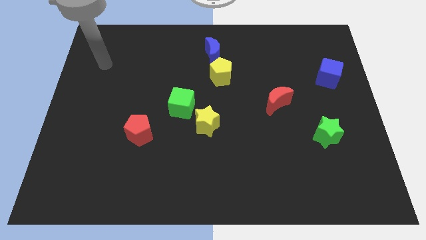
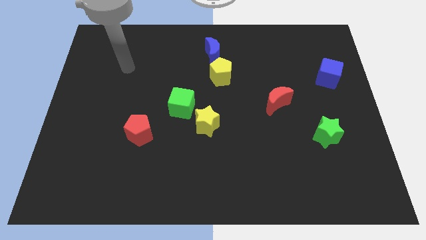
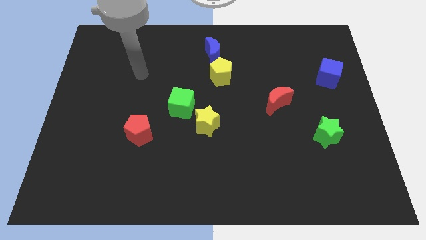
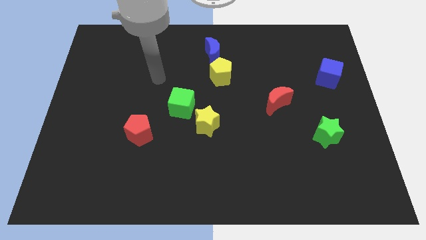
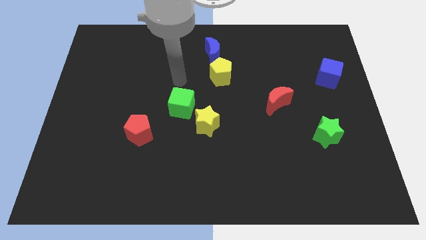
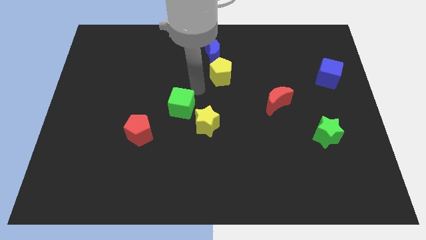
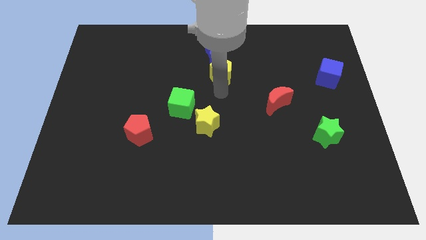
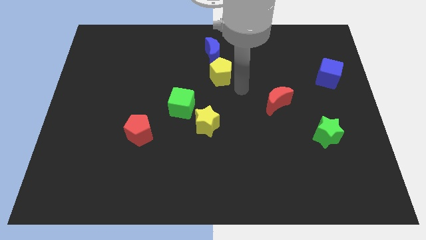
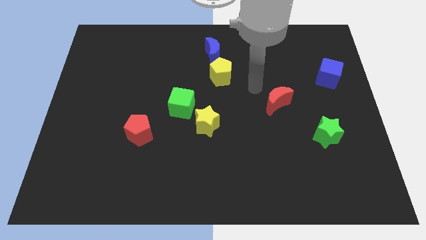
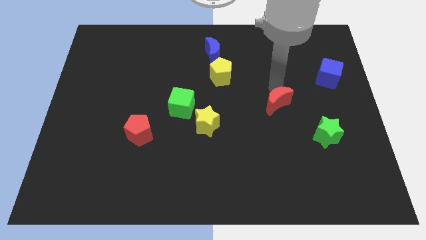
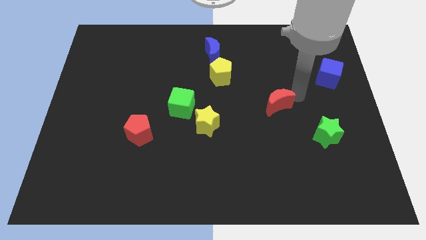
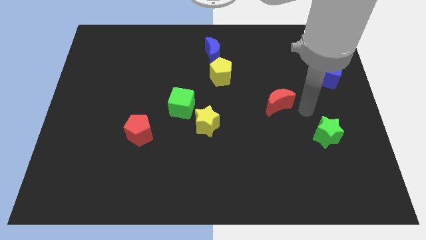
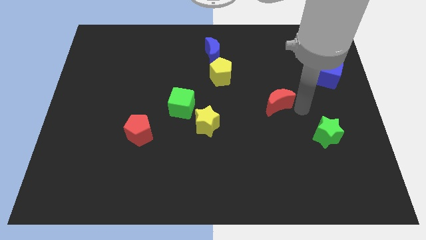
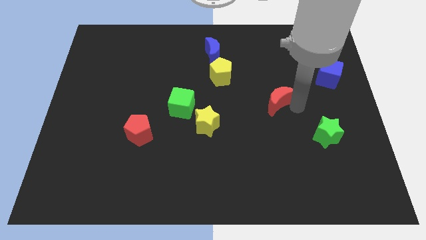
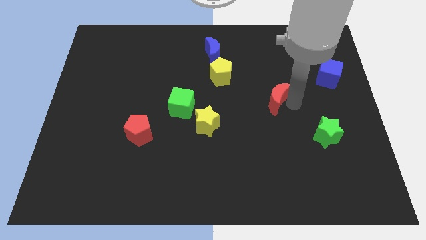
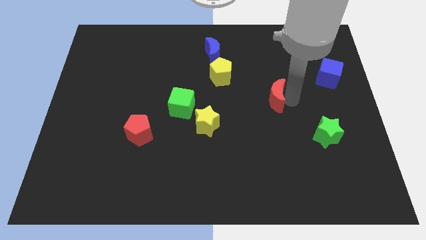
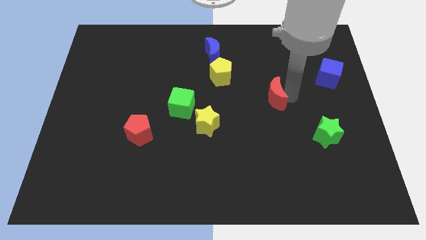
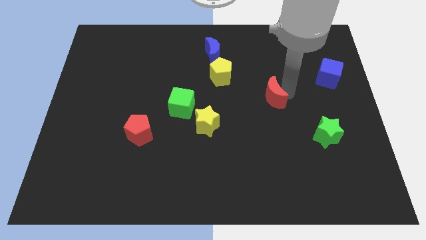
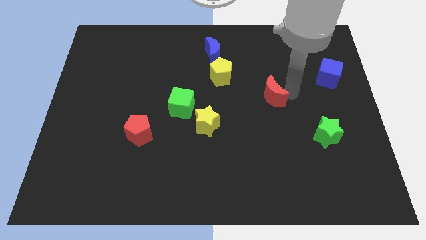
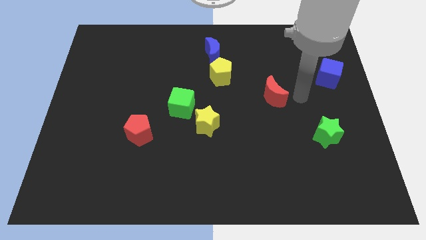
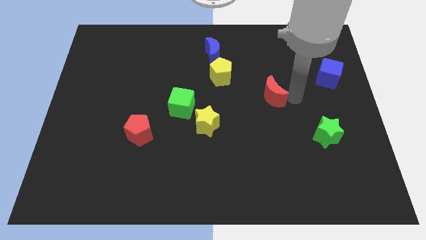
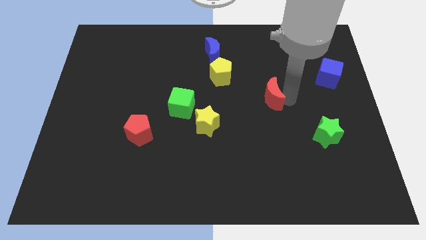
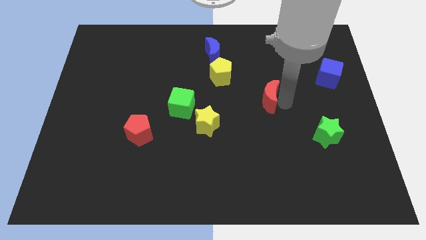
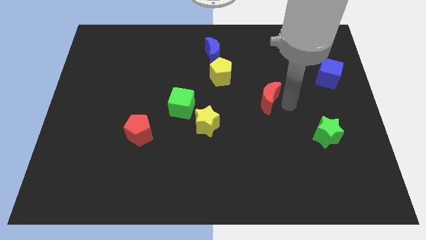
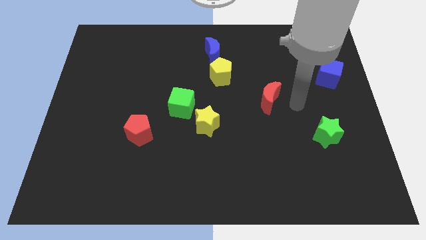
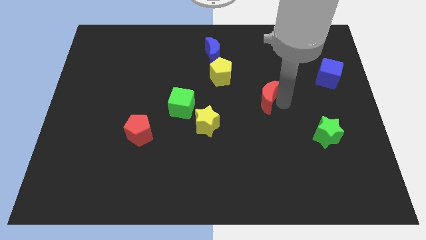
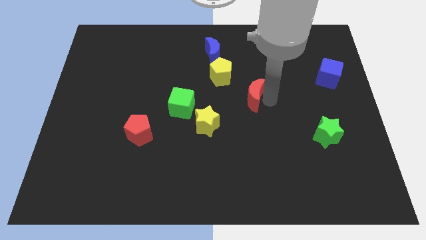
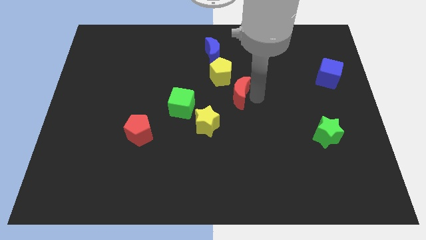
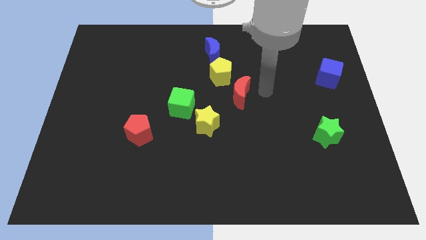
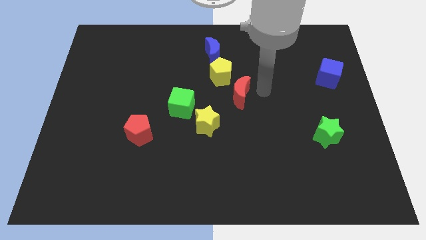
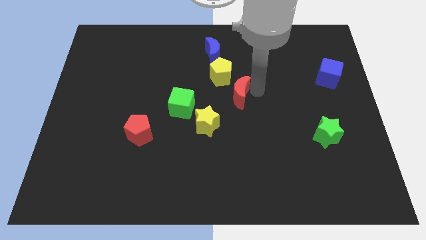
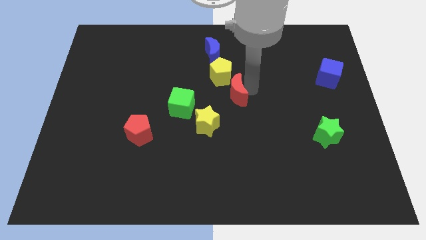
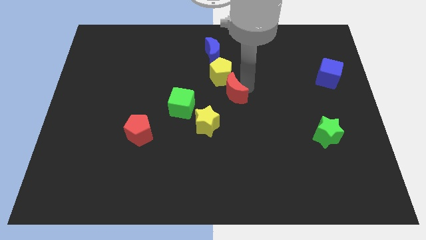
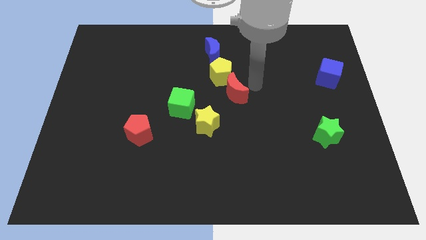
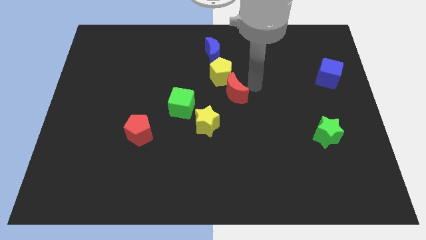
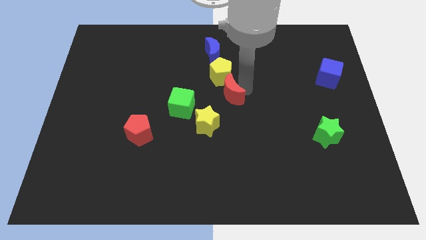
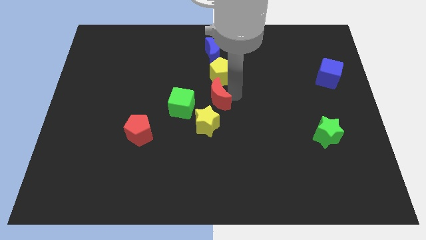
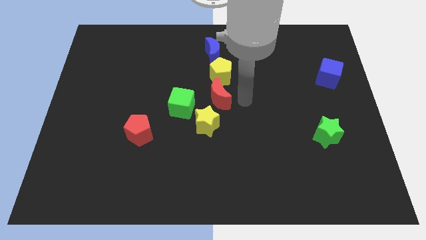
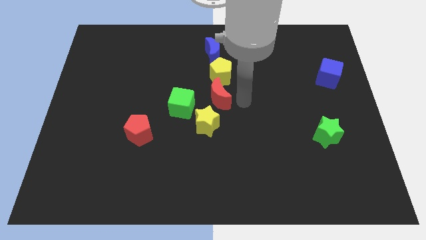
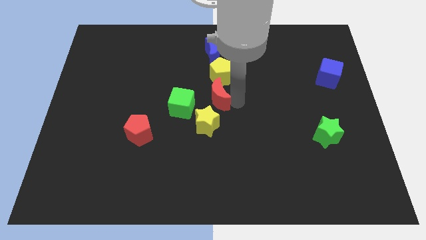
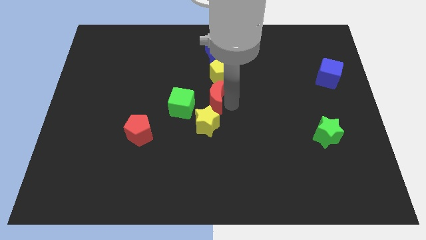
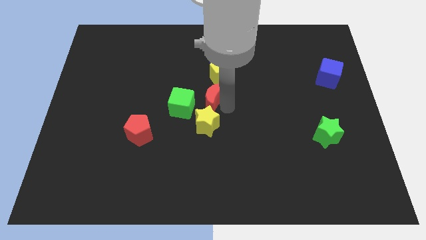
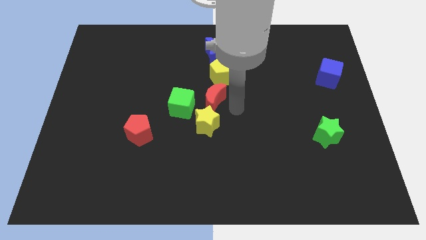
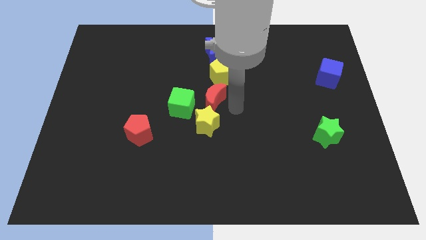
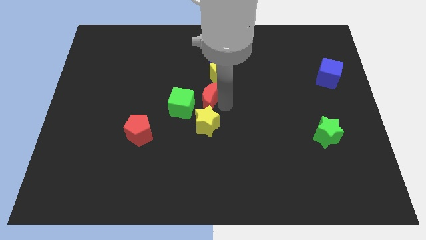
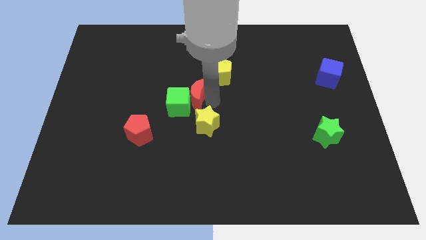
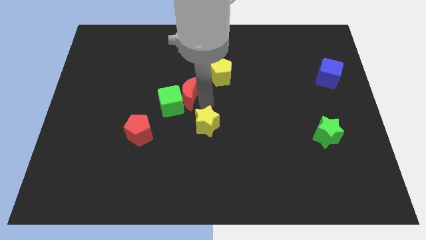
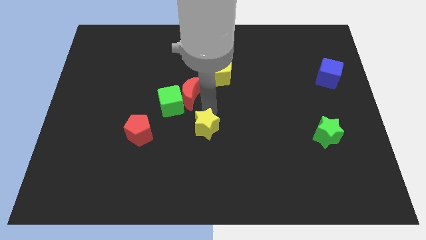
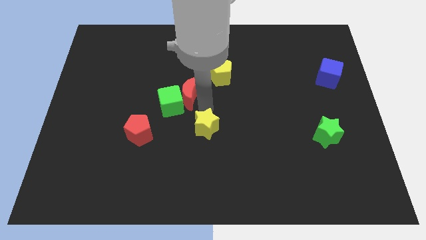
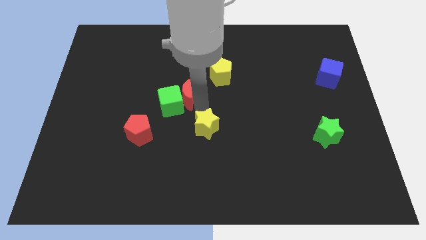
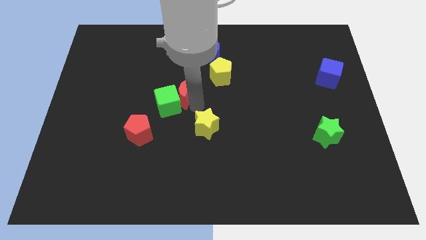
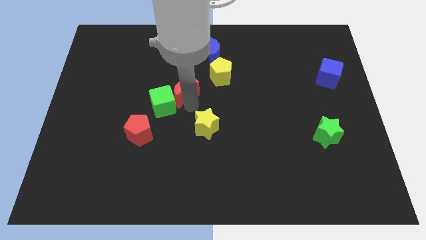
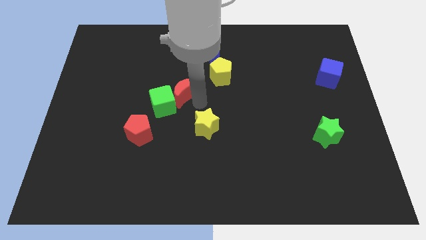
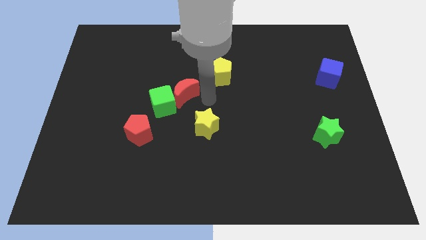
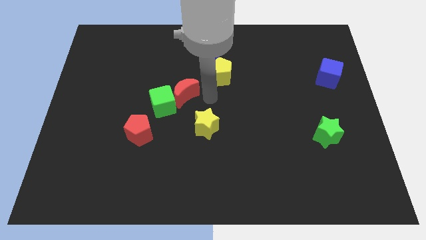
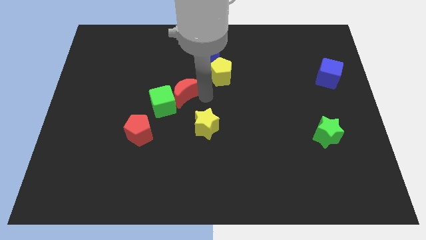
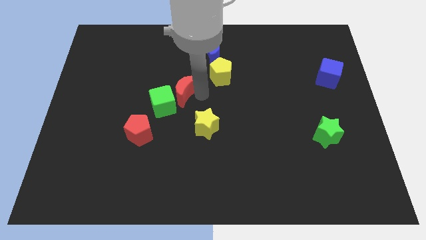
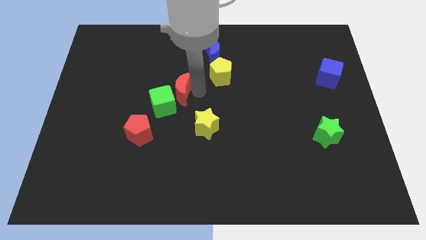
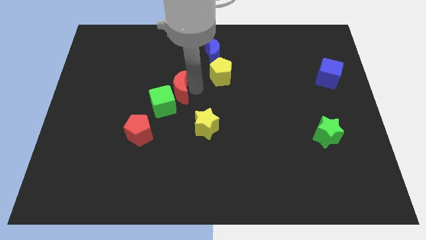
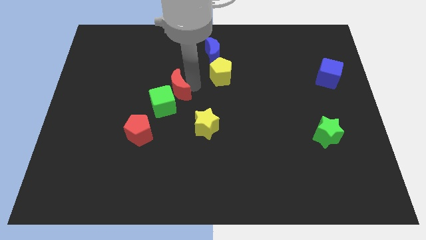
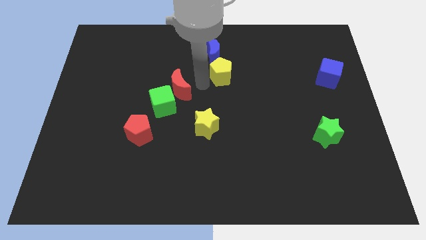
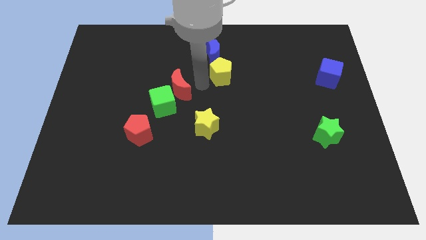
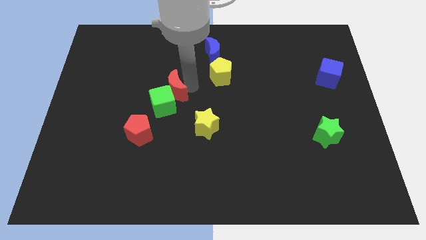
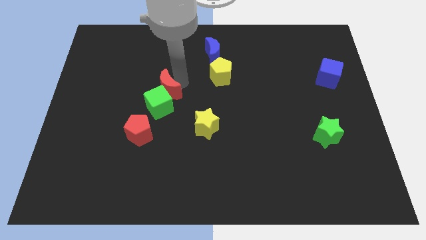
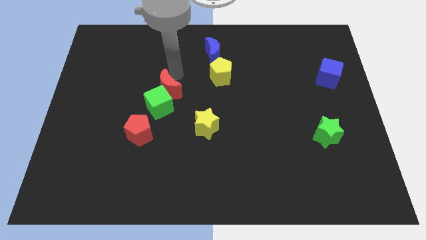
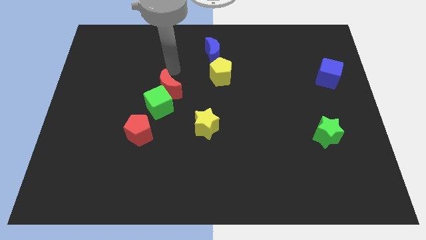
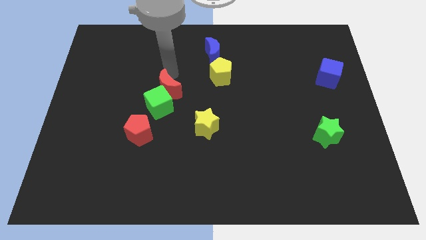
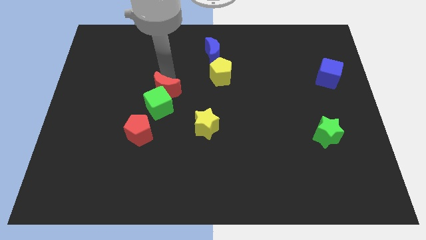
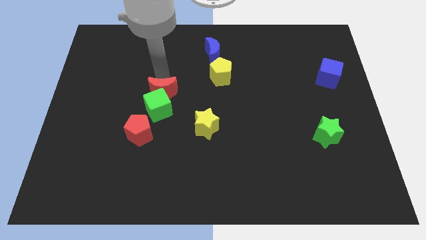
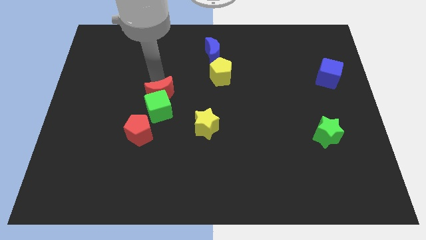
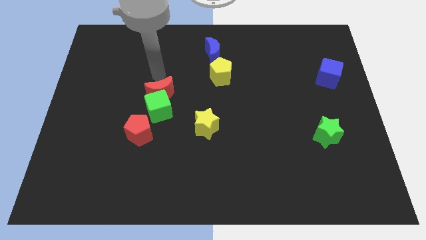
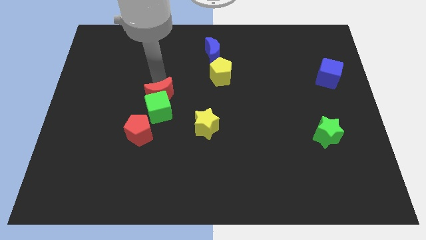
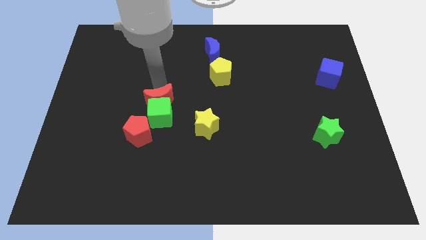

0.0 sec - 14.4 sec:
move the red moon diagonally up and to the right of the red pentagon
